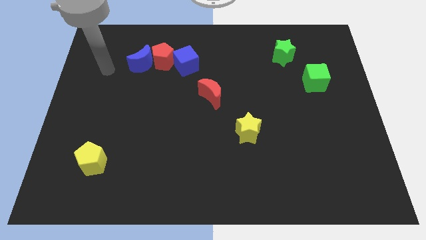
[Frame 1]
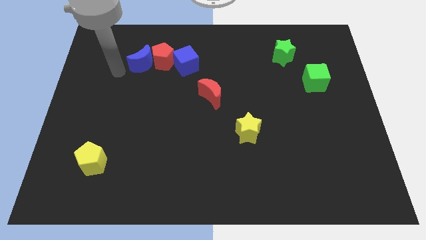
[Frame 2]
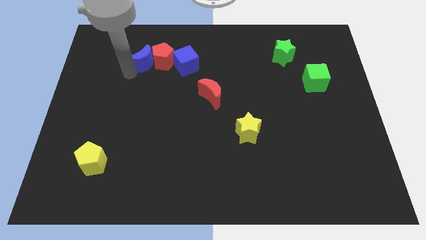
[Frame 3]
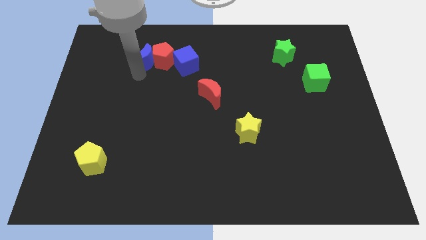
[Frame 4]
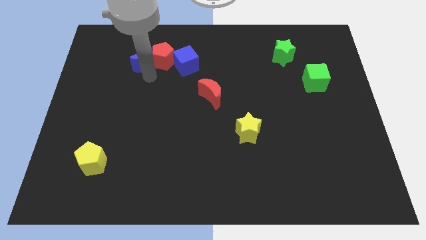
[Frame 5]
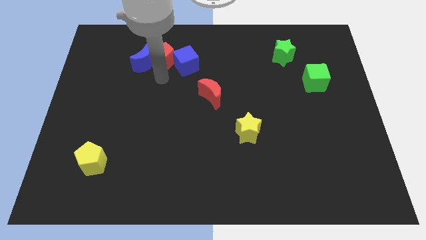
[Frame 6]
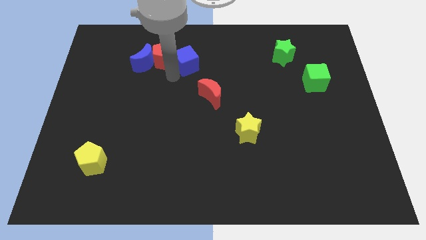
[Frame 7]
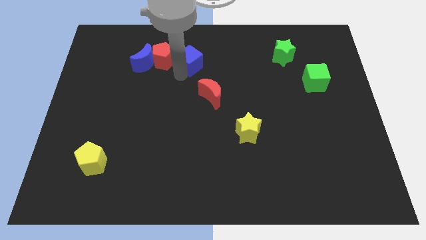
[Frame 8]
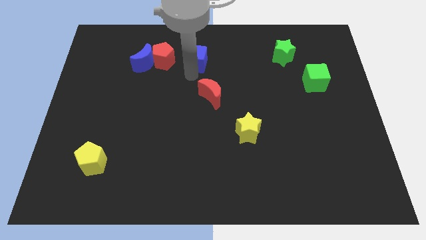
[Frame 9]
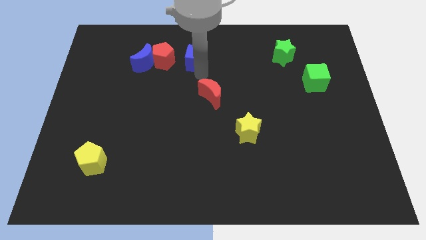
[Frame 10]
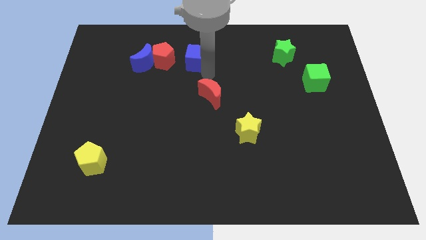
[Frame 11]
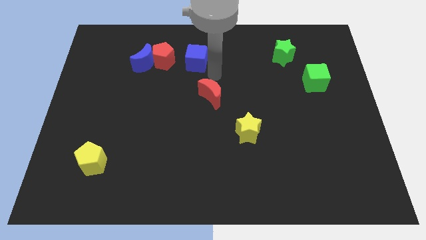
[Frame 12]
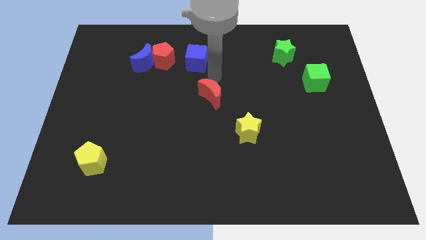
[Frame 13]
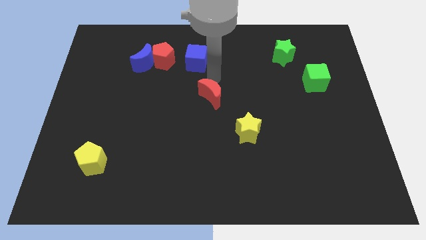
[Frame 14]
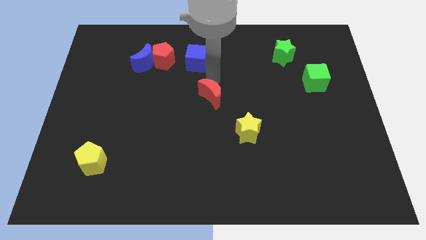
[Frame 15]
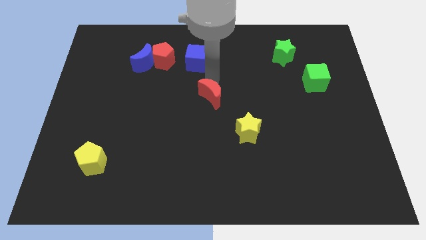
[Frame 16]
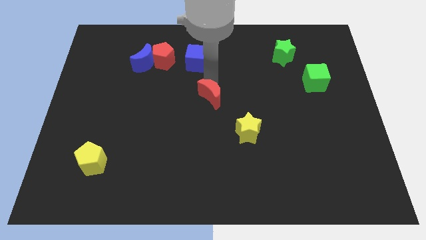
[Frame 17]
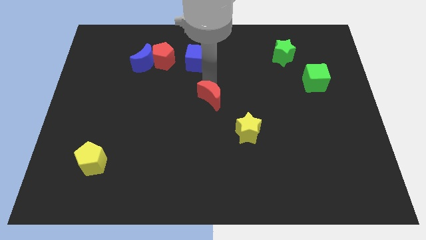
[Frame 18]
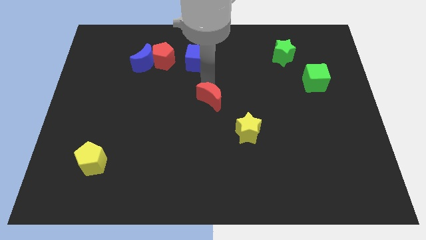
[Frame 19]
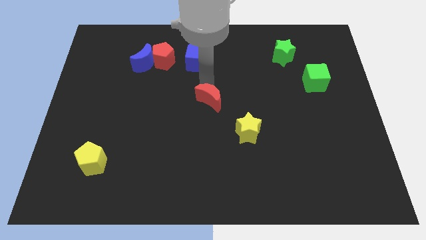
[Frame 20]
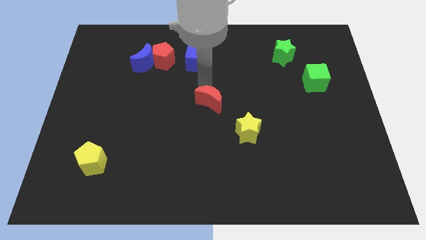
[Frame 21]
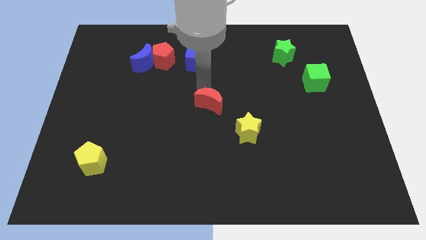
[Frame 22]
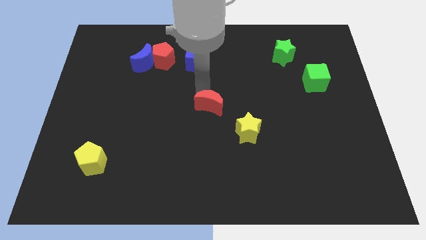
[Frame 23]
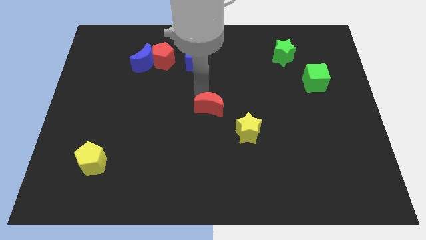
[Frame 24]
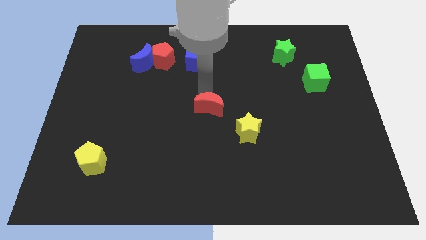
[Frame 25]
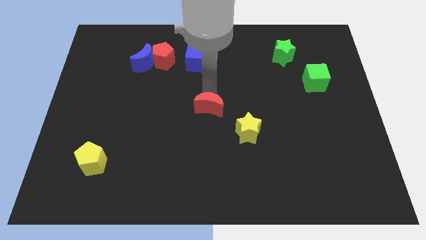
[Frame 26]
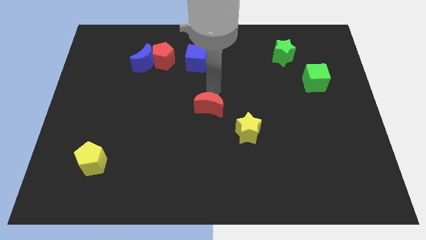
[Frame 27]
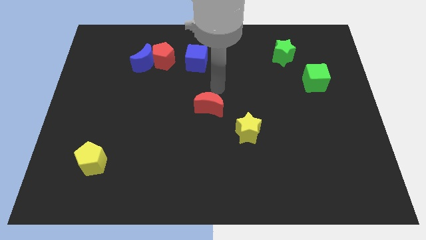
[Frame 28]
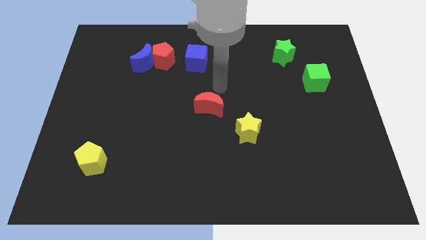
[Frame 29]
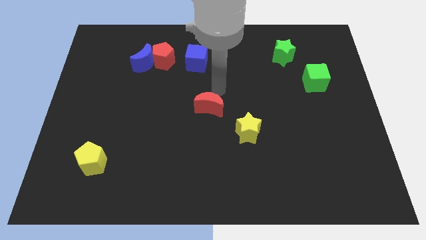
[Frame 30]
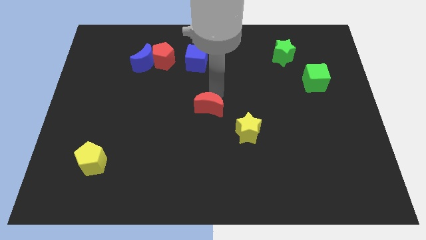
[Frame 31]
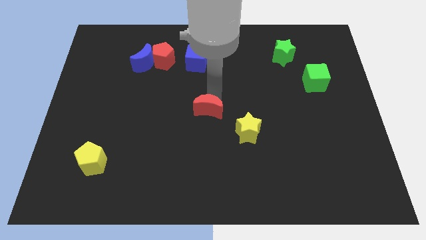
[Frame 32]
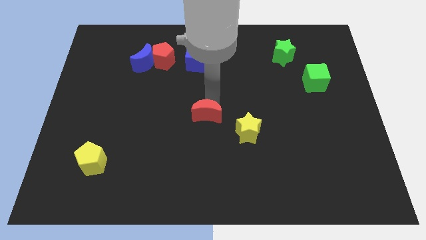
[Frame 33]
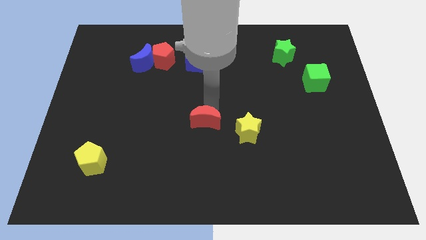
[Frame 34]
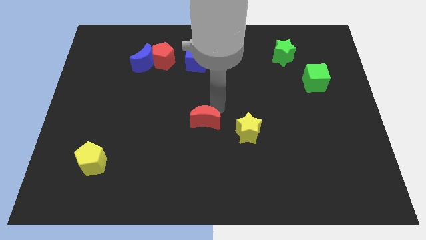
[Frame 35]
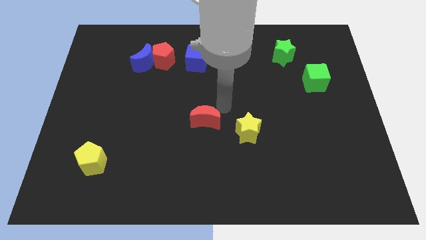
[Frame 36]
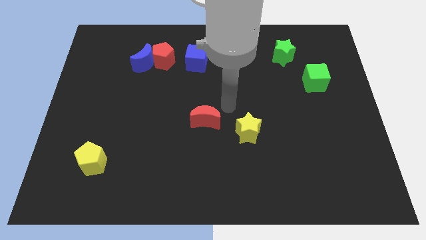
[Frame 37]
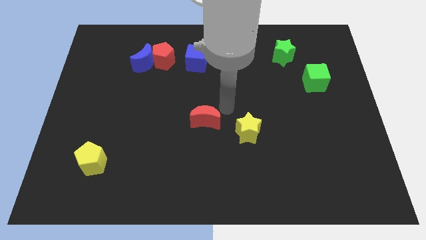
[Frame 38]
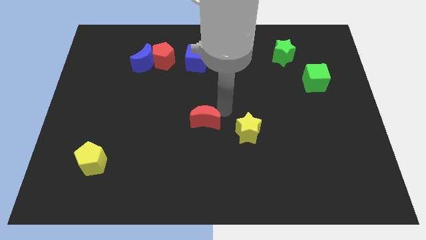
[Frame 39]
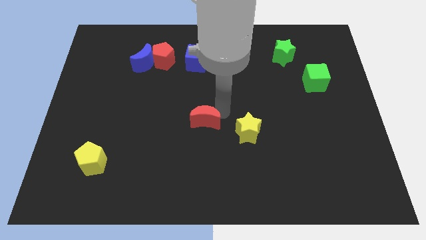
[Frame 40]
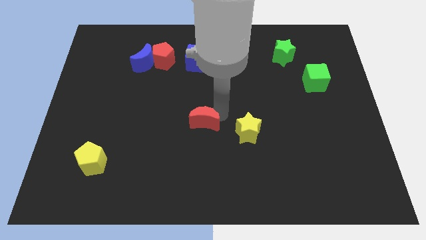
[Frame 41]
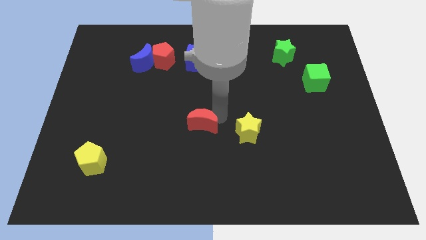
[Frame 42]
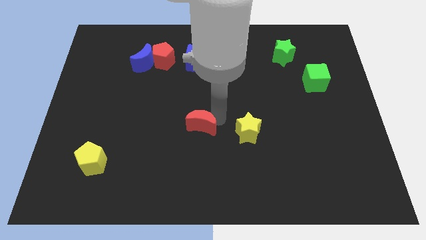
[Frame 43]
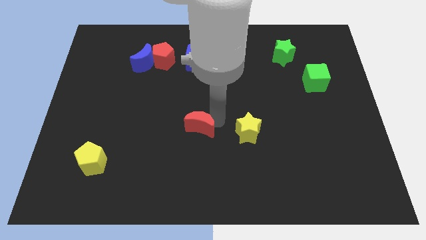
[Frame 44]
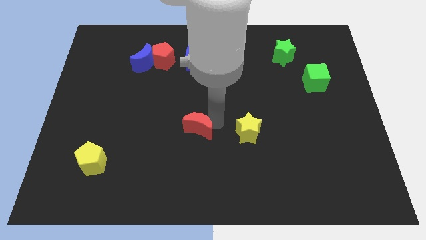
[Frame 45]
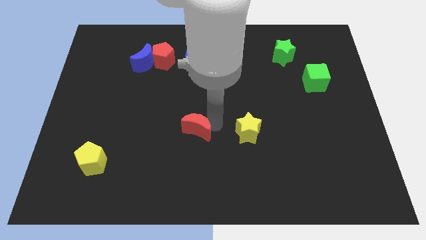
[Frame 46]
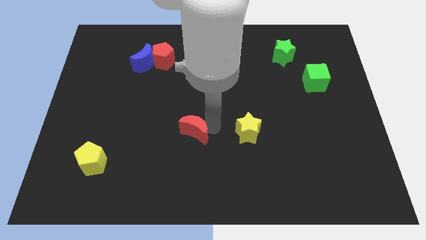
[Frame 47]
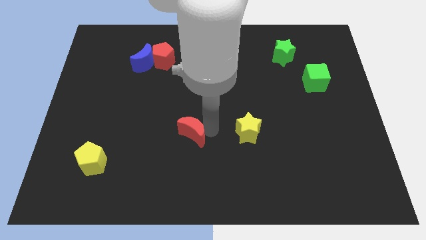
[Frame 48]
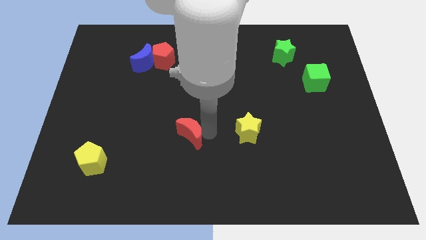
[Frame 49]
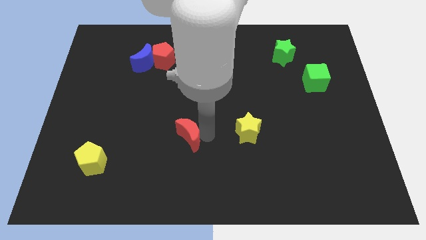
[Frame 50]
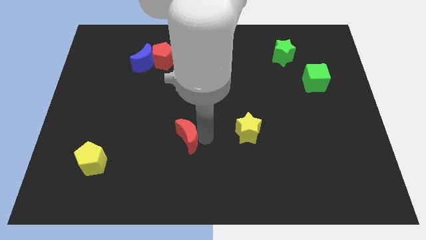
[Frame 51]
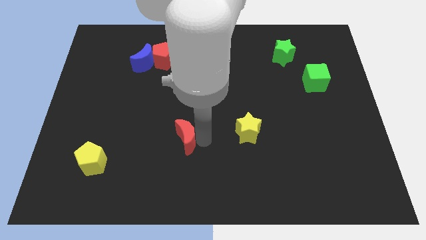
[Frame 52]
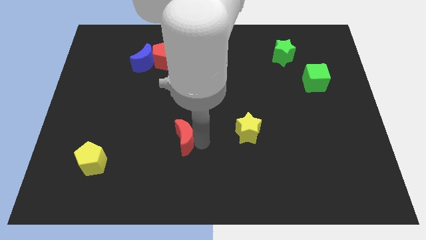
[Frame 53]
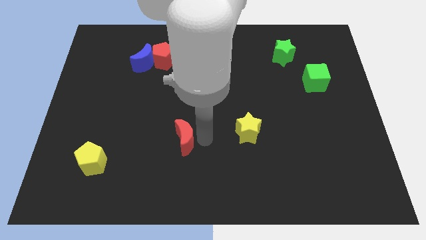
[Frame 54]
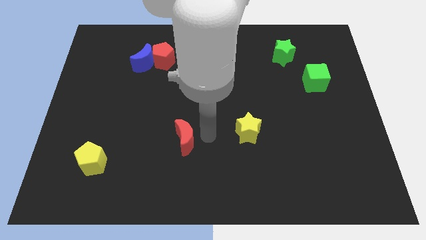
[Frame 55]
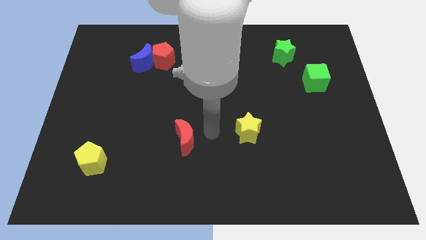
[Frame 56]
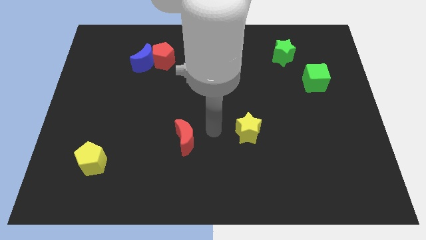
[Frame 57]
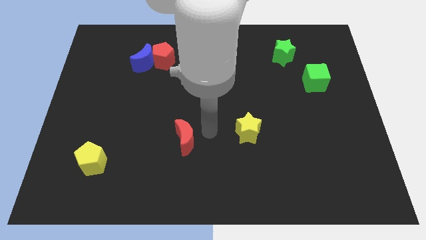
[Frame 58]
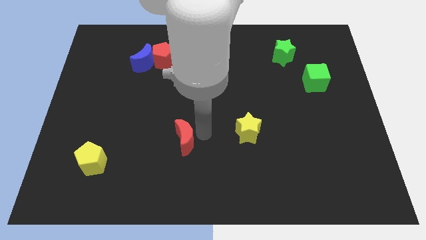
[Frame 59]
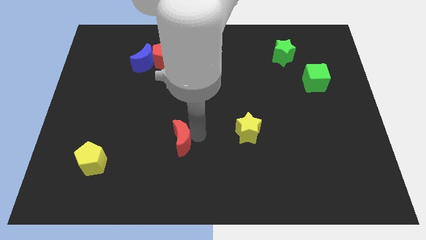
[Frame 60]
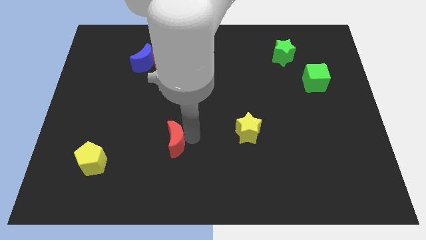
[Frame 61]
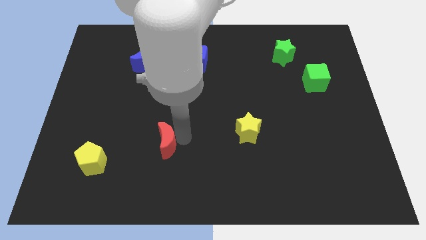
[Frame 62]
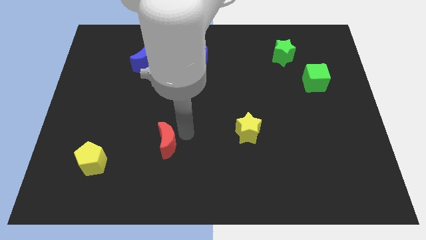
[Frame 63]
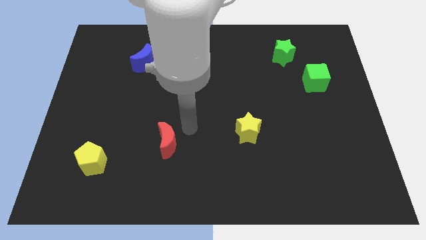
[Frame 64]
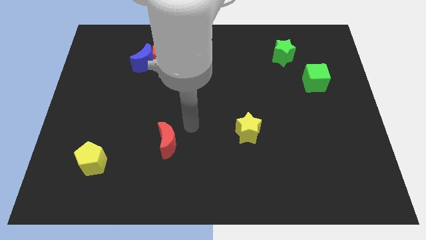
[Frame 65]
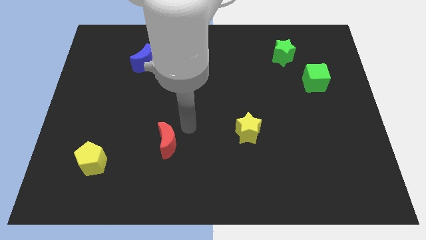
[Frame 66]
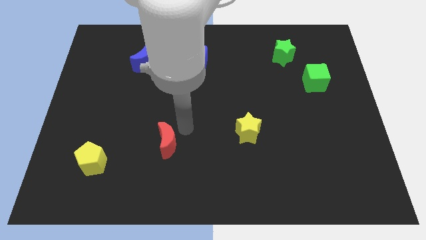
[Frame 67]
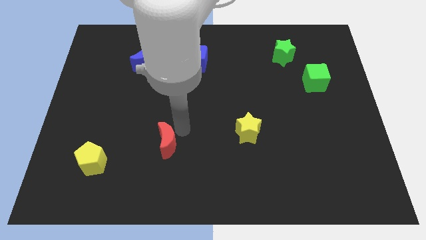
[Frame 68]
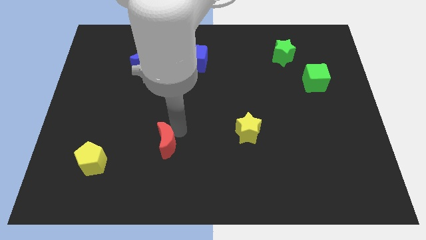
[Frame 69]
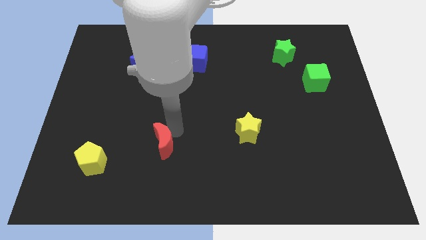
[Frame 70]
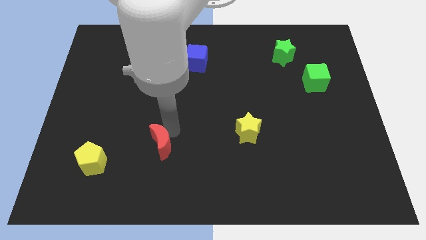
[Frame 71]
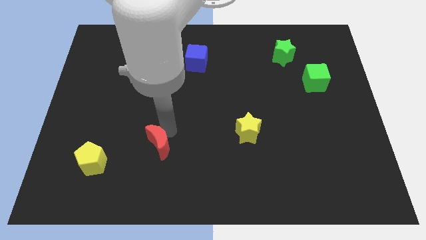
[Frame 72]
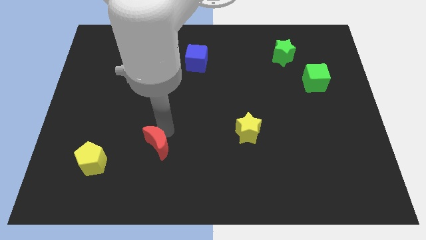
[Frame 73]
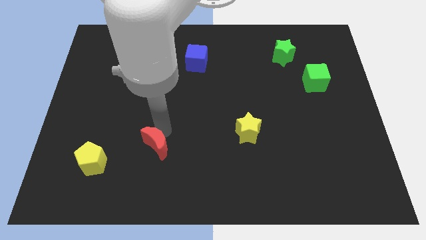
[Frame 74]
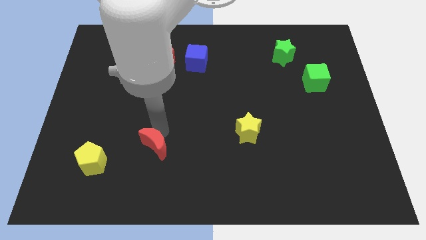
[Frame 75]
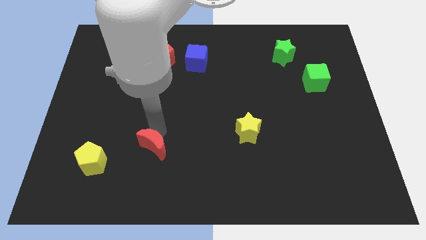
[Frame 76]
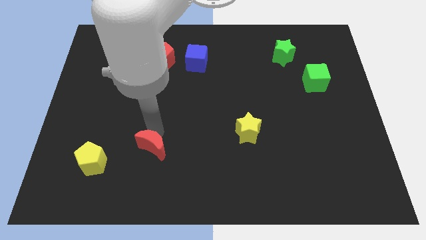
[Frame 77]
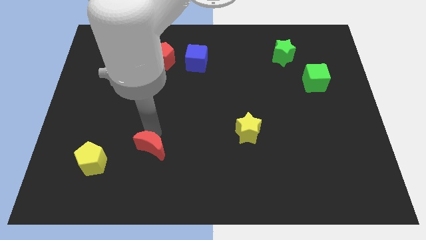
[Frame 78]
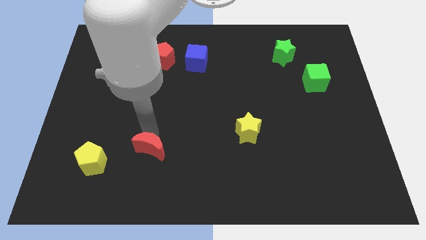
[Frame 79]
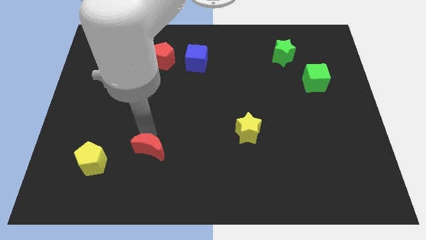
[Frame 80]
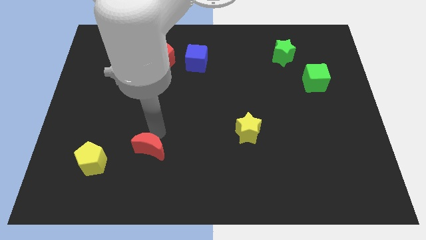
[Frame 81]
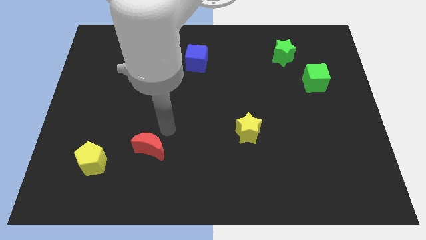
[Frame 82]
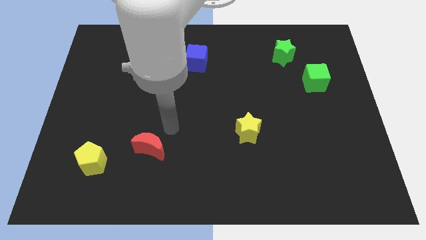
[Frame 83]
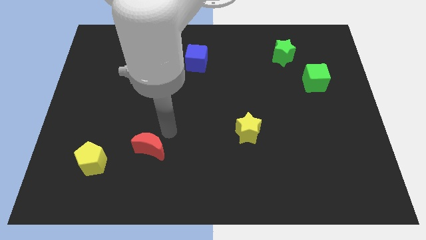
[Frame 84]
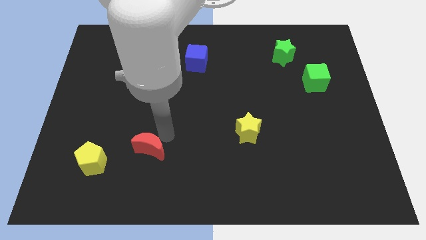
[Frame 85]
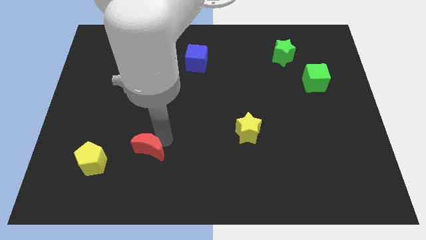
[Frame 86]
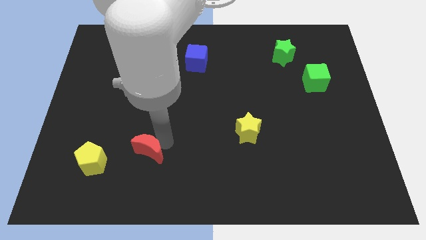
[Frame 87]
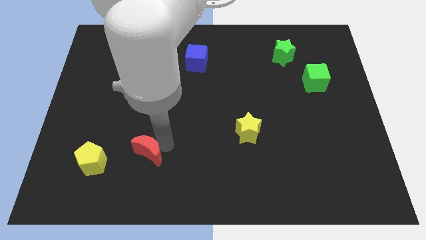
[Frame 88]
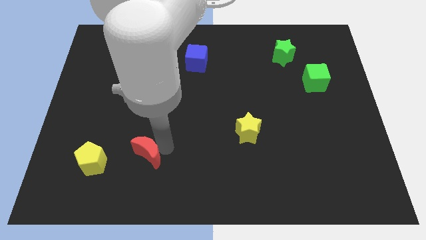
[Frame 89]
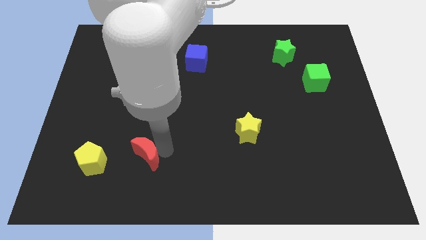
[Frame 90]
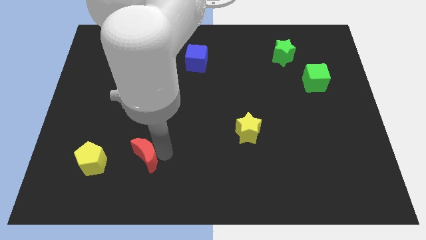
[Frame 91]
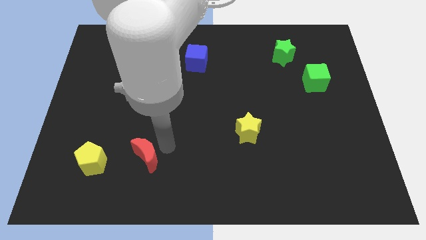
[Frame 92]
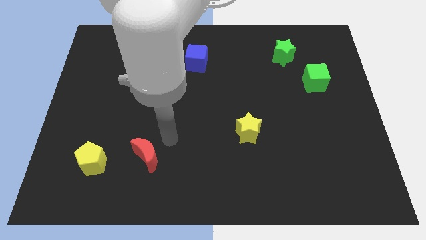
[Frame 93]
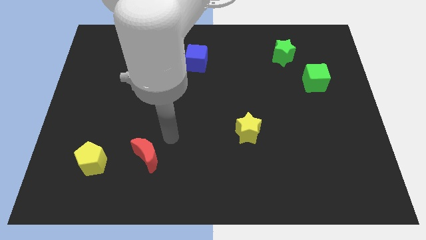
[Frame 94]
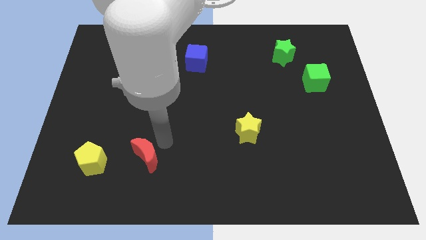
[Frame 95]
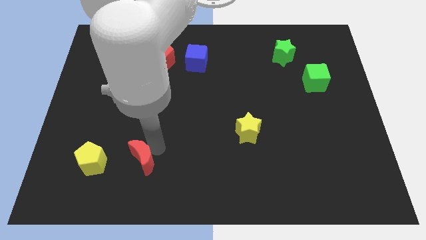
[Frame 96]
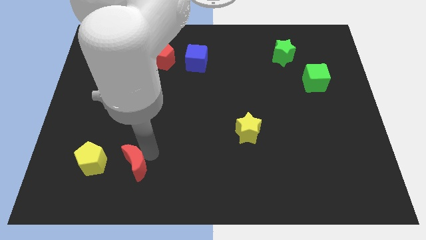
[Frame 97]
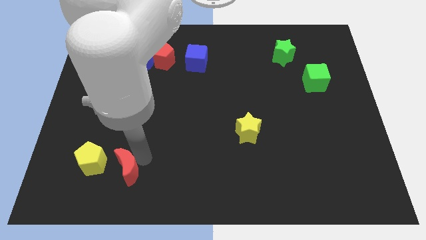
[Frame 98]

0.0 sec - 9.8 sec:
slide the red moon diagonally down and to the right of the yellow pentagon
